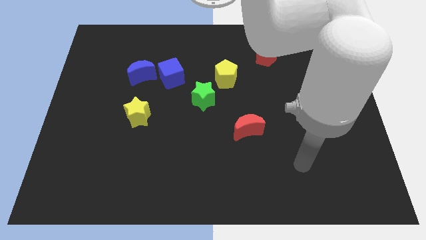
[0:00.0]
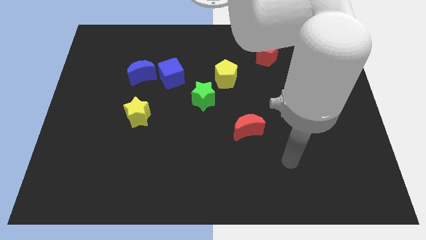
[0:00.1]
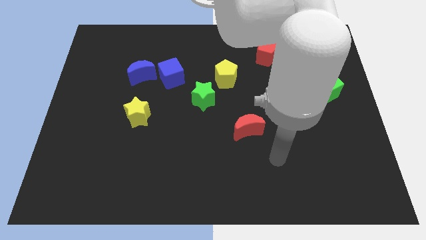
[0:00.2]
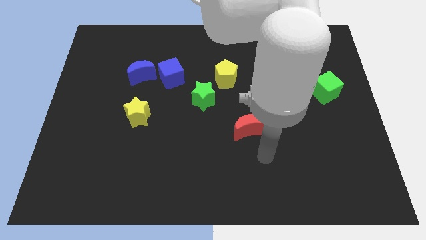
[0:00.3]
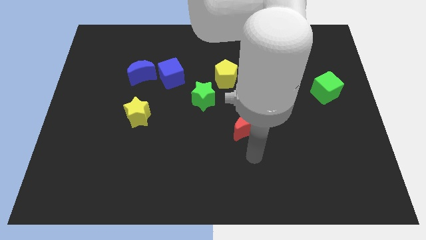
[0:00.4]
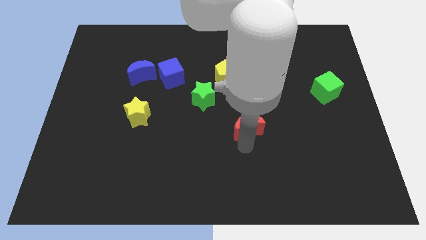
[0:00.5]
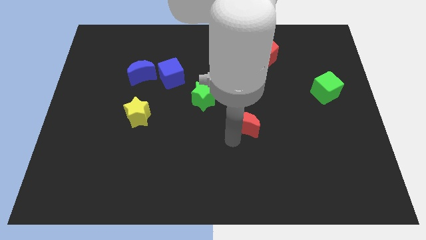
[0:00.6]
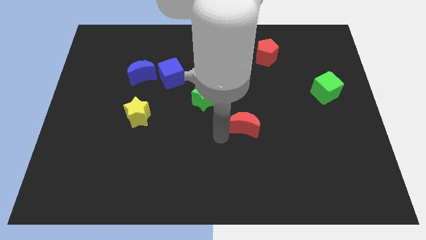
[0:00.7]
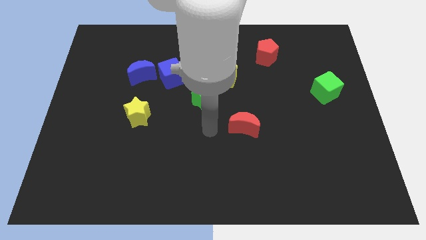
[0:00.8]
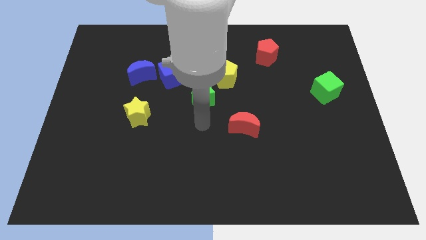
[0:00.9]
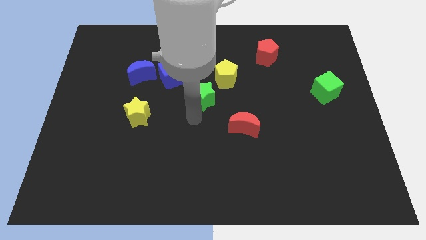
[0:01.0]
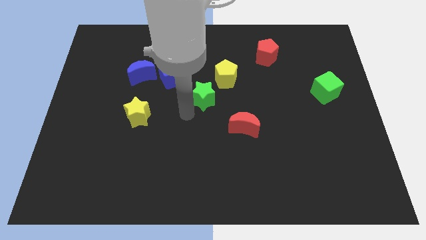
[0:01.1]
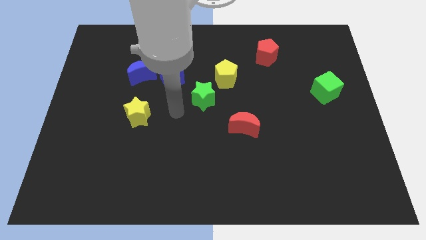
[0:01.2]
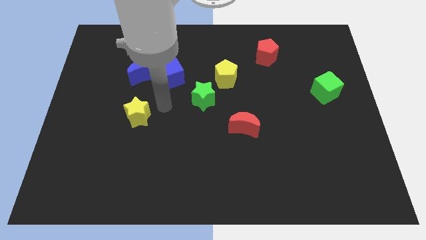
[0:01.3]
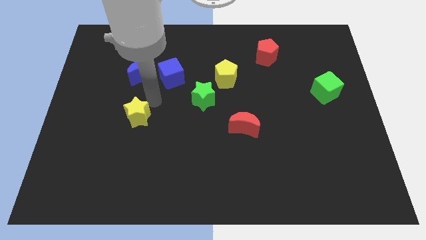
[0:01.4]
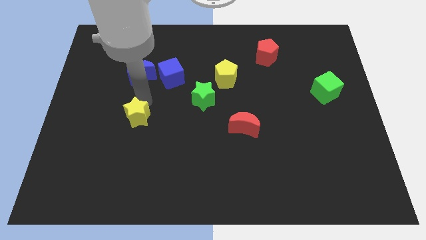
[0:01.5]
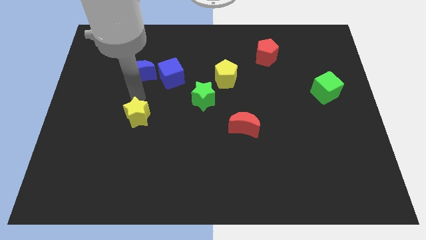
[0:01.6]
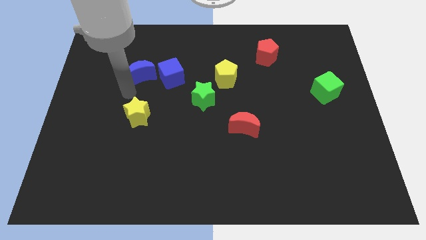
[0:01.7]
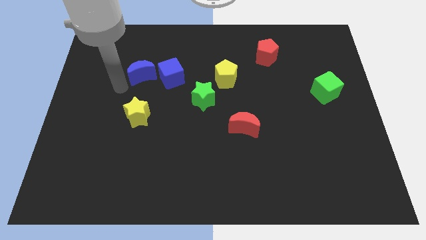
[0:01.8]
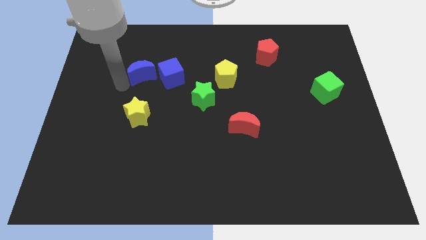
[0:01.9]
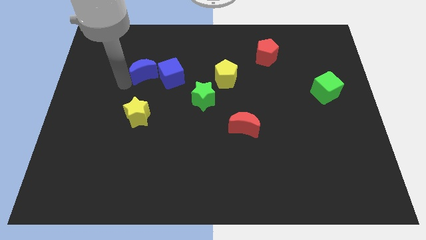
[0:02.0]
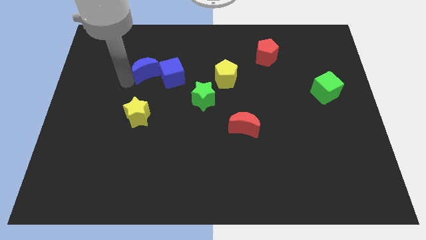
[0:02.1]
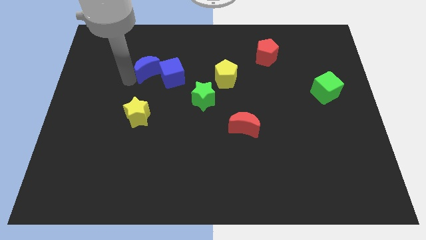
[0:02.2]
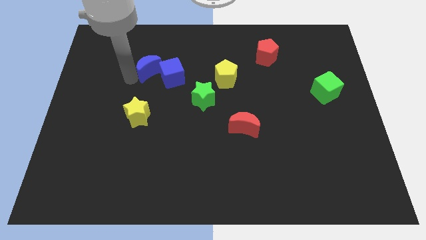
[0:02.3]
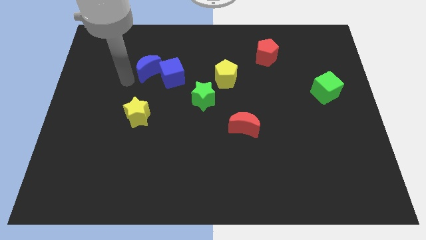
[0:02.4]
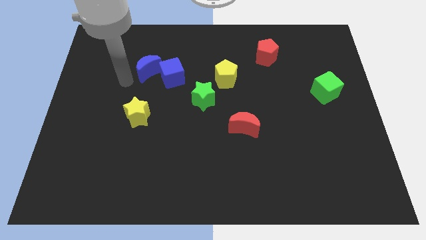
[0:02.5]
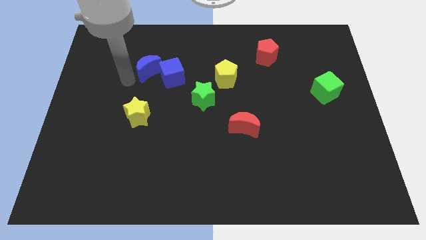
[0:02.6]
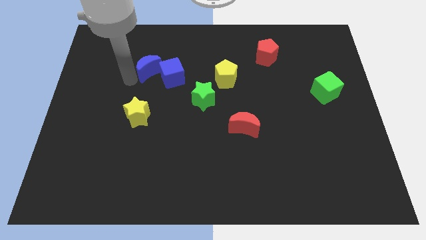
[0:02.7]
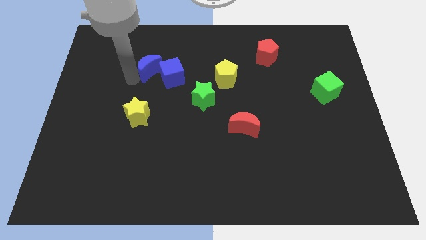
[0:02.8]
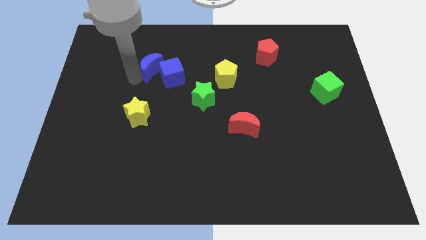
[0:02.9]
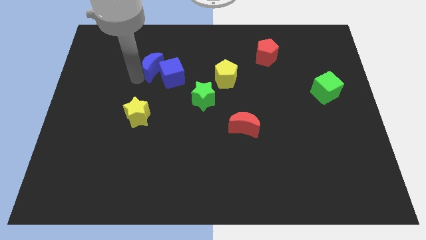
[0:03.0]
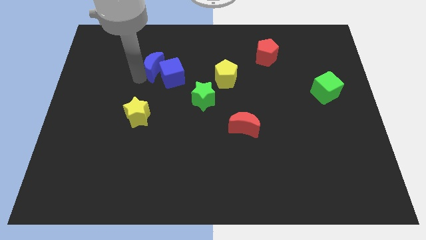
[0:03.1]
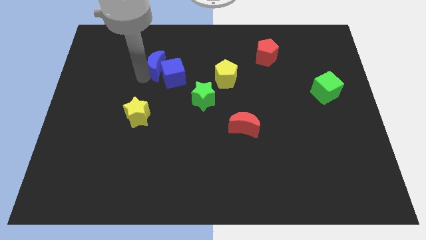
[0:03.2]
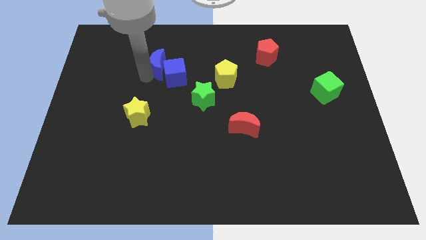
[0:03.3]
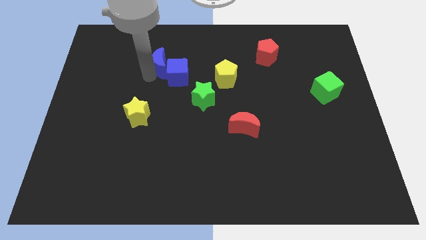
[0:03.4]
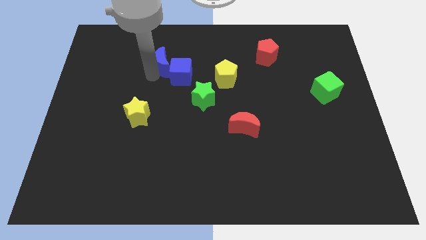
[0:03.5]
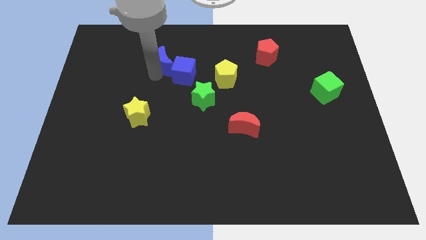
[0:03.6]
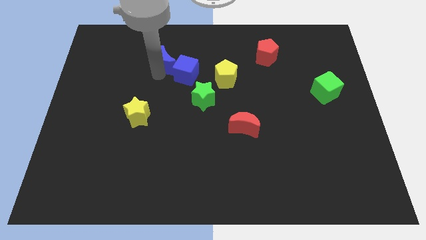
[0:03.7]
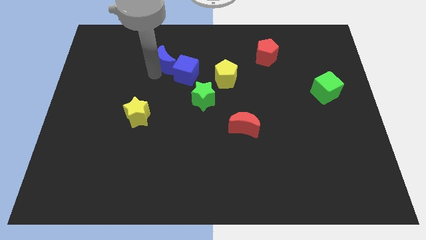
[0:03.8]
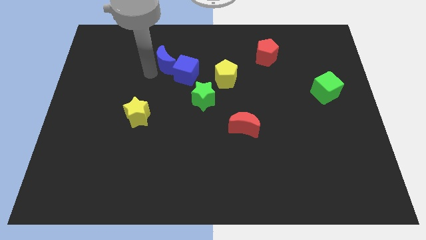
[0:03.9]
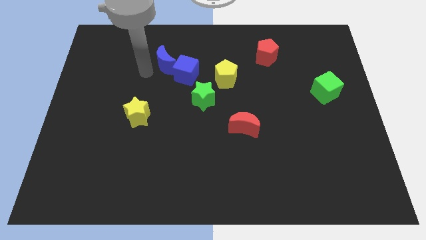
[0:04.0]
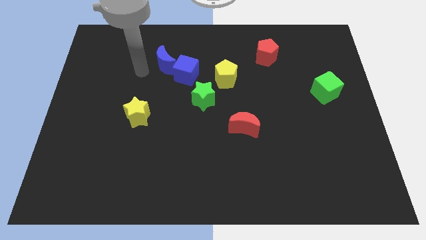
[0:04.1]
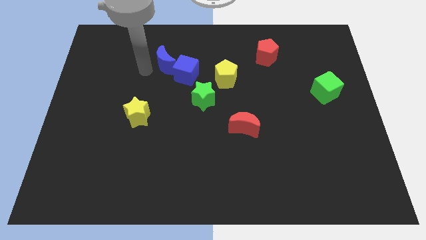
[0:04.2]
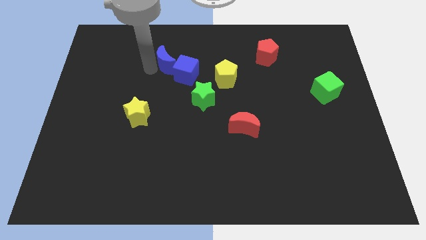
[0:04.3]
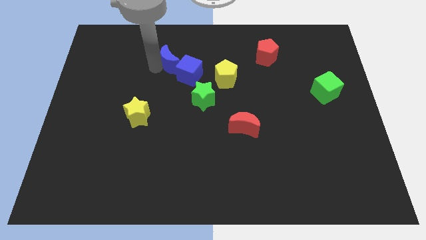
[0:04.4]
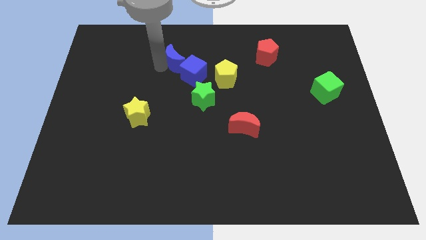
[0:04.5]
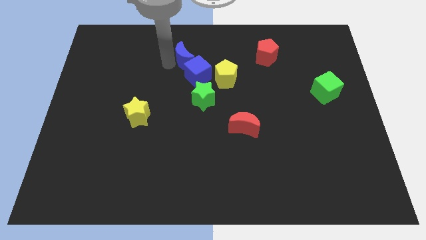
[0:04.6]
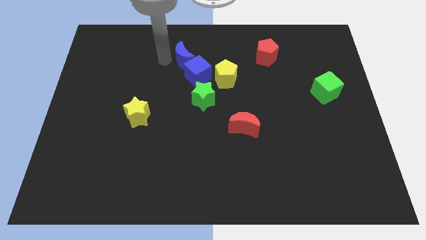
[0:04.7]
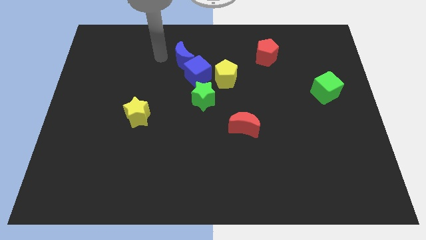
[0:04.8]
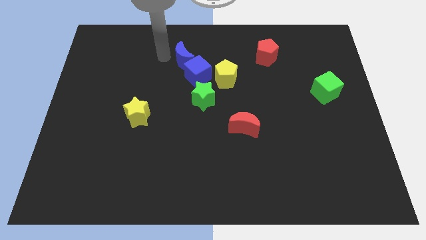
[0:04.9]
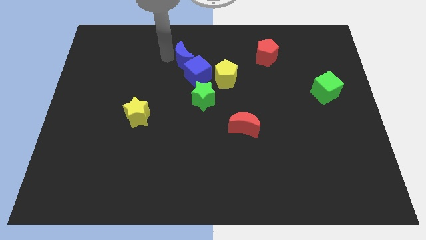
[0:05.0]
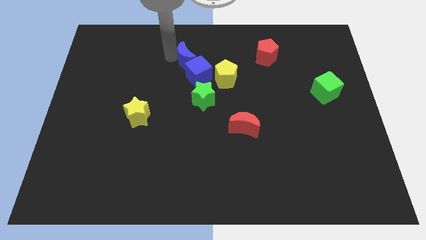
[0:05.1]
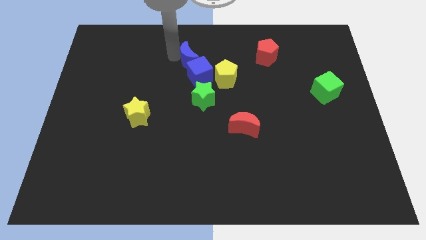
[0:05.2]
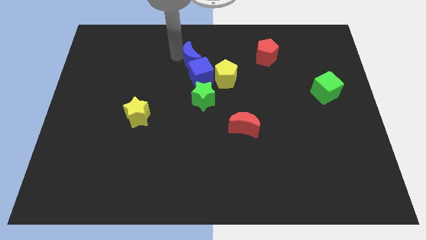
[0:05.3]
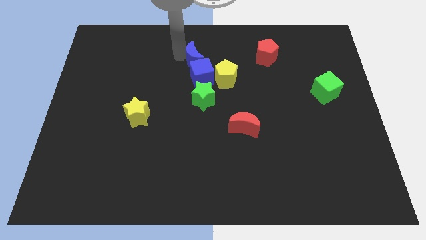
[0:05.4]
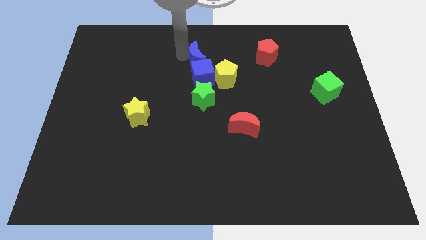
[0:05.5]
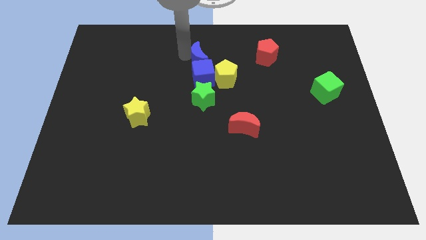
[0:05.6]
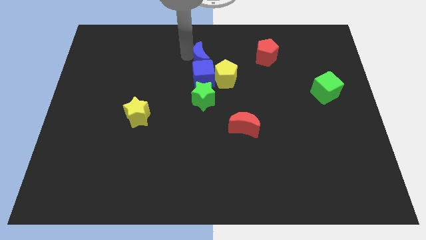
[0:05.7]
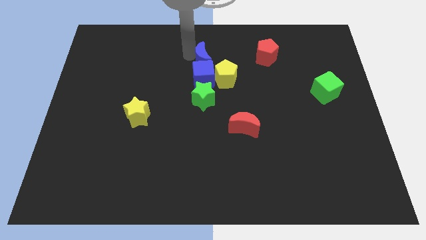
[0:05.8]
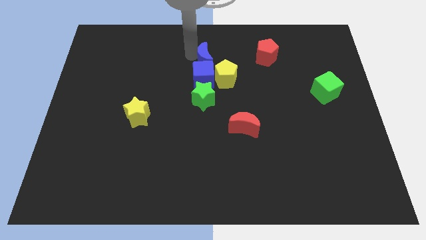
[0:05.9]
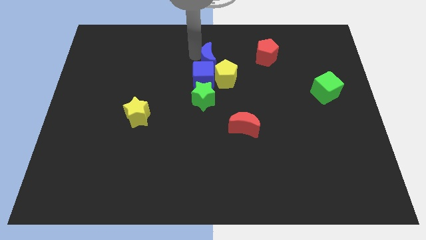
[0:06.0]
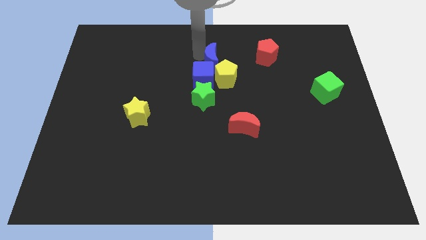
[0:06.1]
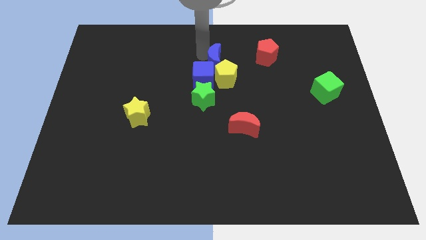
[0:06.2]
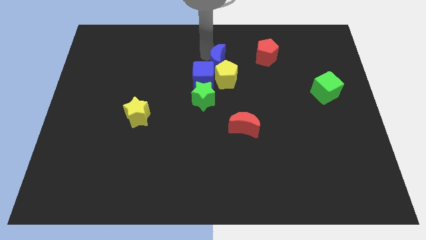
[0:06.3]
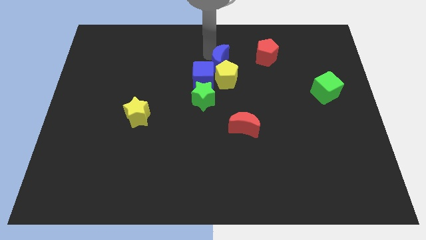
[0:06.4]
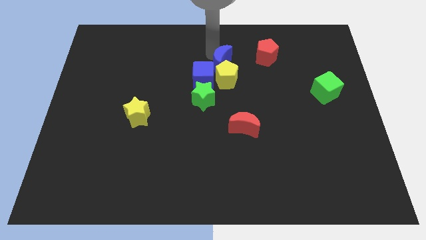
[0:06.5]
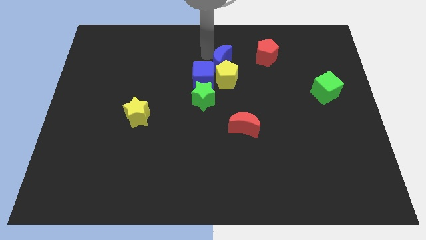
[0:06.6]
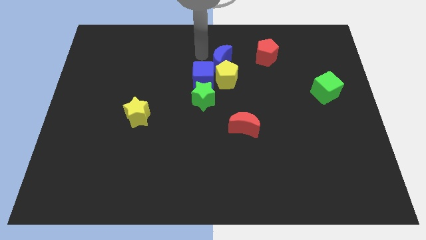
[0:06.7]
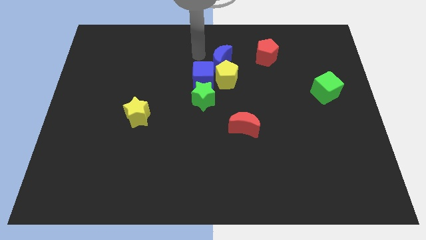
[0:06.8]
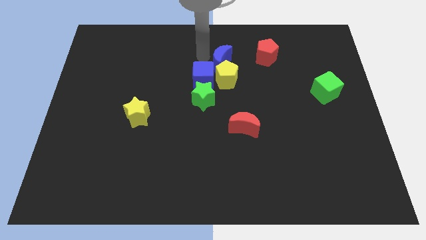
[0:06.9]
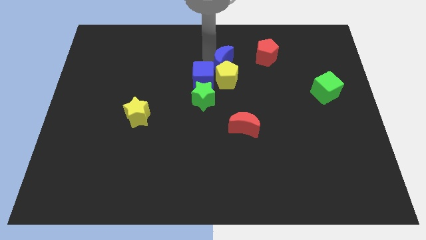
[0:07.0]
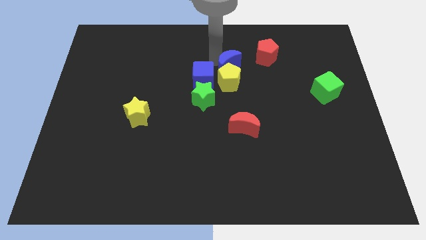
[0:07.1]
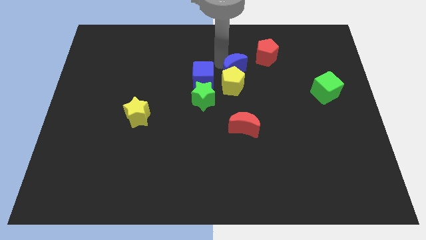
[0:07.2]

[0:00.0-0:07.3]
put the blue moon to the bottom left side of the red pentagon
